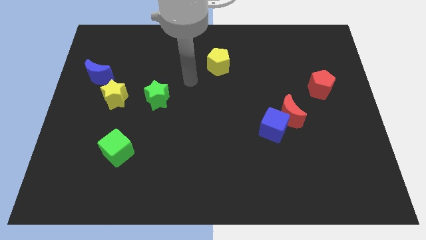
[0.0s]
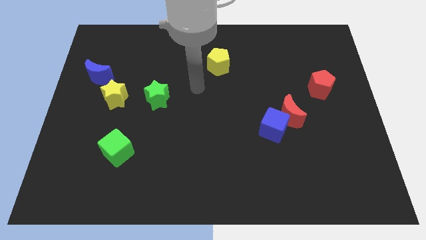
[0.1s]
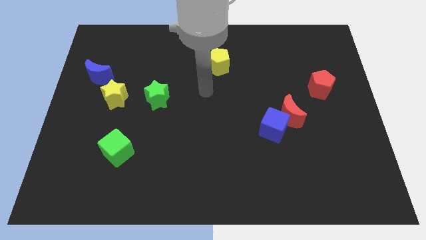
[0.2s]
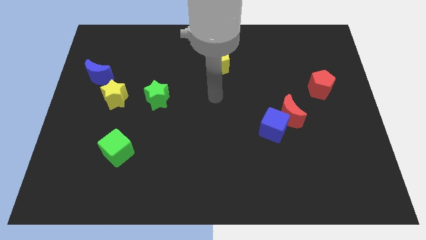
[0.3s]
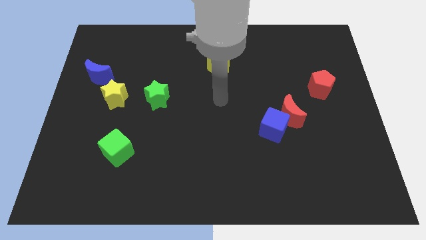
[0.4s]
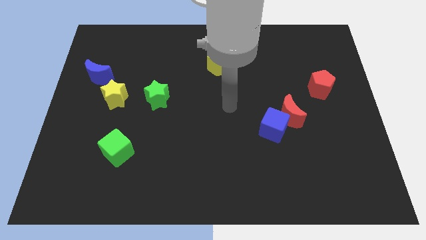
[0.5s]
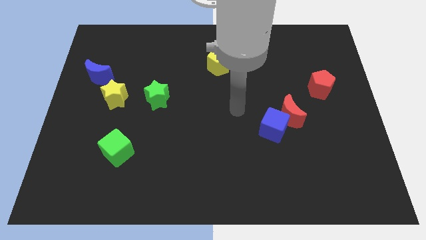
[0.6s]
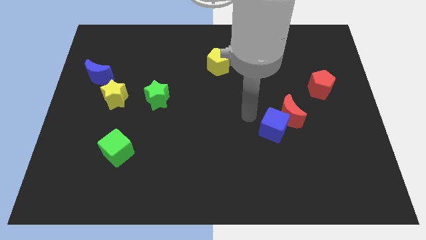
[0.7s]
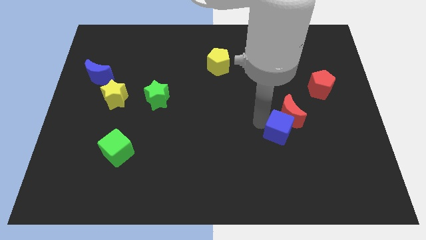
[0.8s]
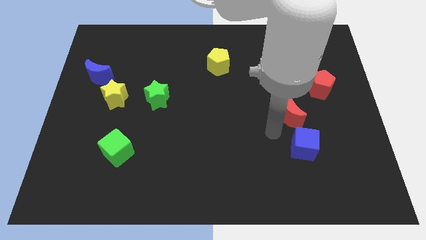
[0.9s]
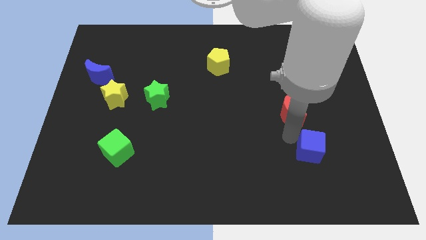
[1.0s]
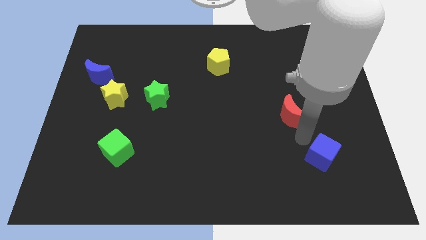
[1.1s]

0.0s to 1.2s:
move the red moon away from the blue cube

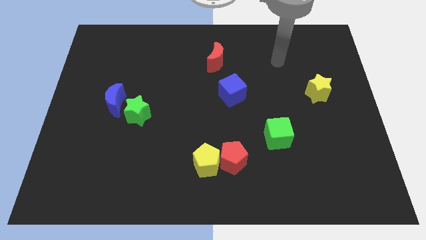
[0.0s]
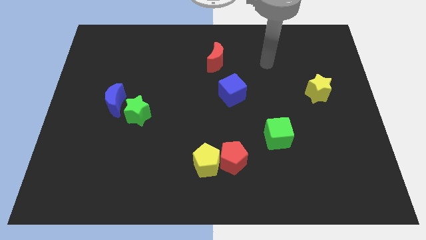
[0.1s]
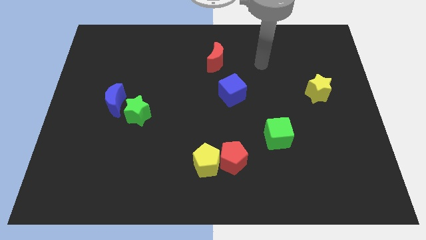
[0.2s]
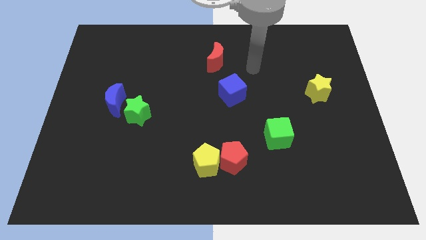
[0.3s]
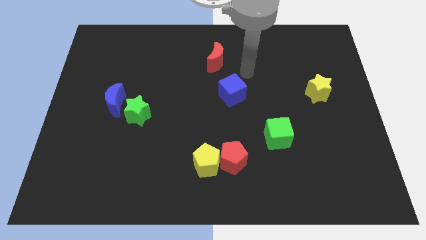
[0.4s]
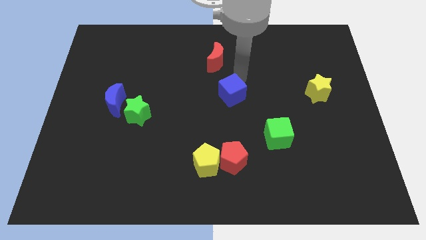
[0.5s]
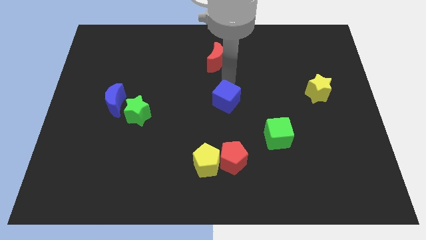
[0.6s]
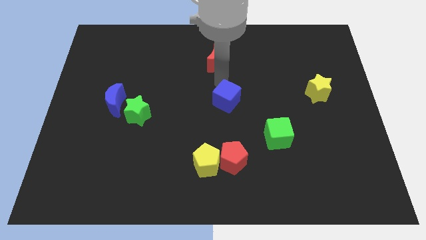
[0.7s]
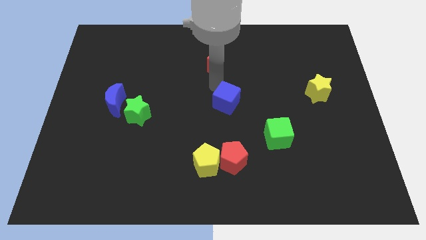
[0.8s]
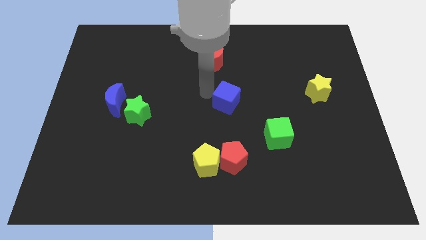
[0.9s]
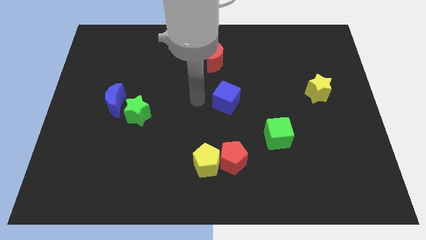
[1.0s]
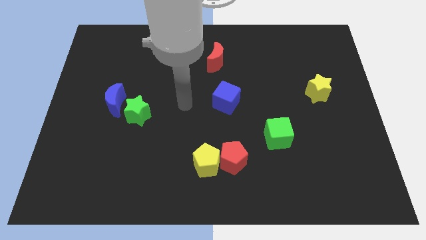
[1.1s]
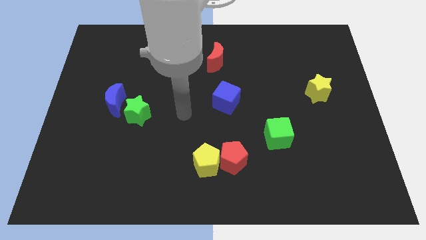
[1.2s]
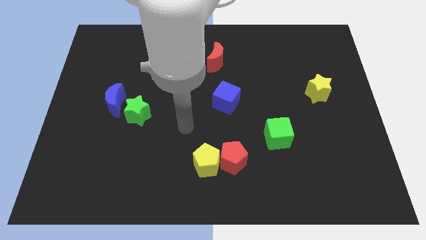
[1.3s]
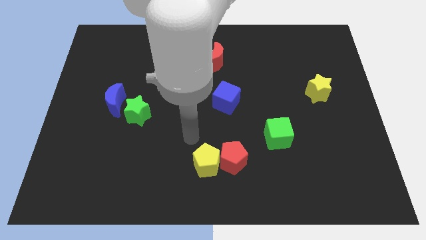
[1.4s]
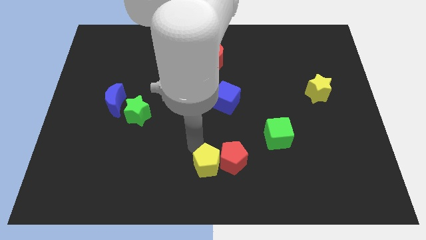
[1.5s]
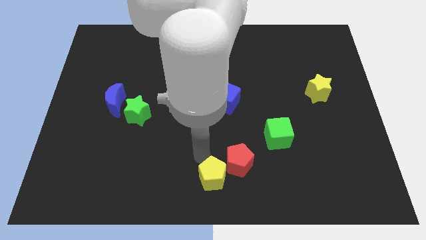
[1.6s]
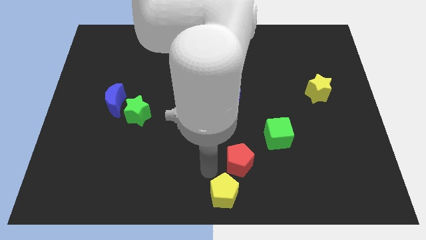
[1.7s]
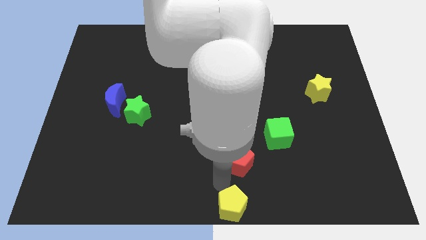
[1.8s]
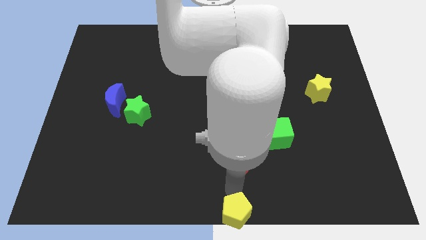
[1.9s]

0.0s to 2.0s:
move the red pentagon away from the yellow pentagon

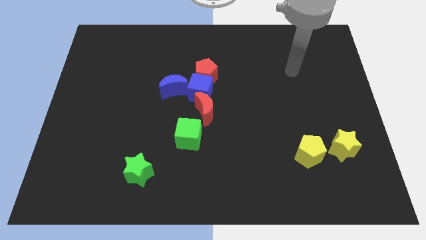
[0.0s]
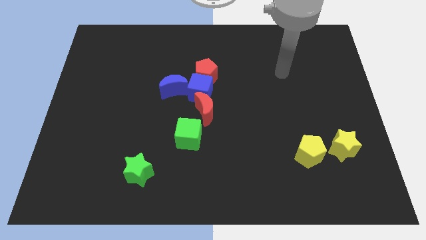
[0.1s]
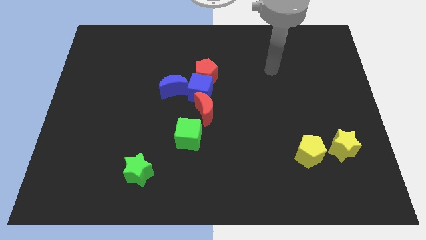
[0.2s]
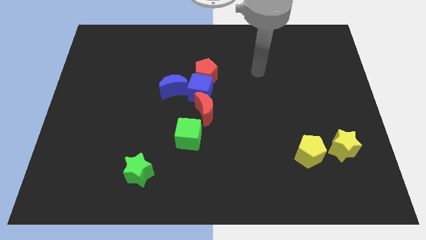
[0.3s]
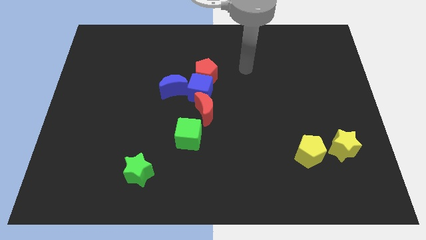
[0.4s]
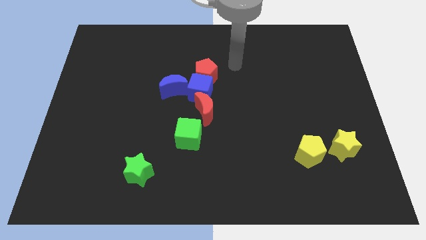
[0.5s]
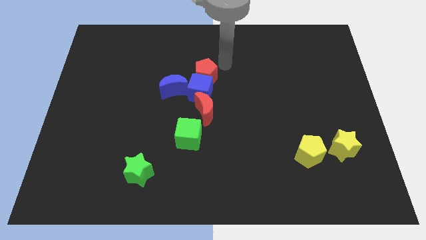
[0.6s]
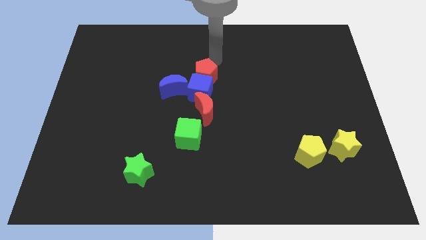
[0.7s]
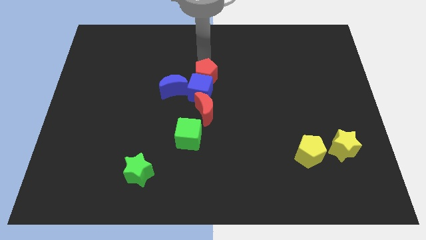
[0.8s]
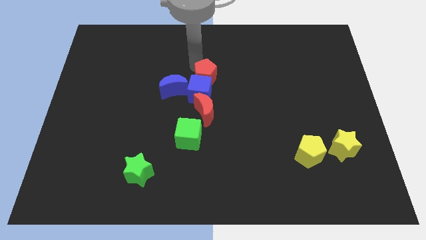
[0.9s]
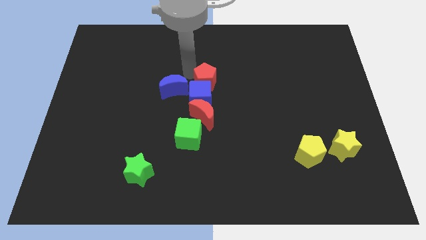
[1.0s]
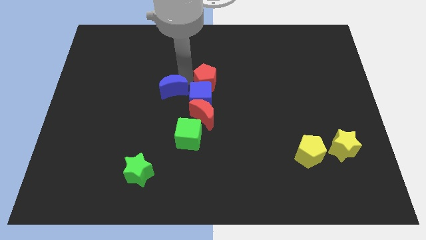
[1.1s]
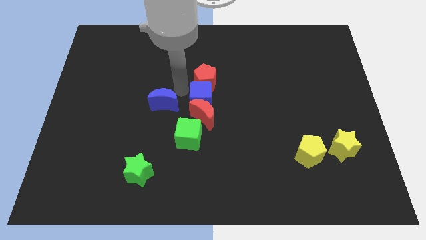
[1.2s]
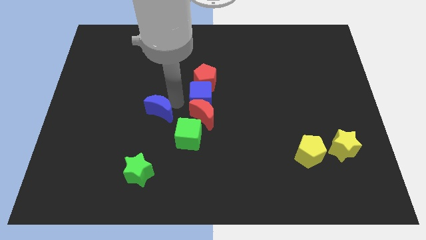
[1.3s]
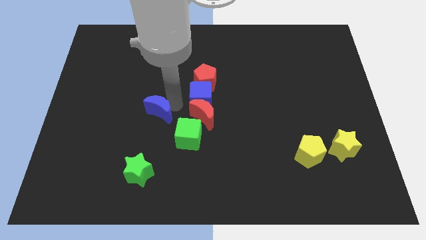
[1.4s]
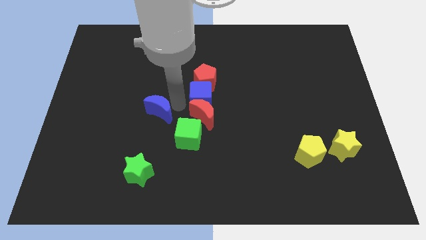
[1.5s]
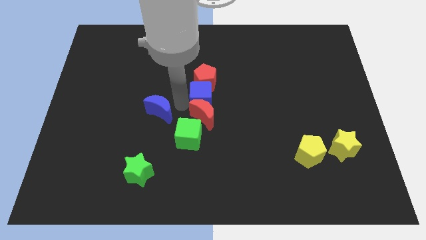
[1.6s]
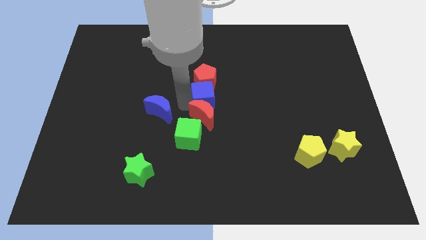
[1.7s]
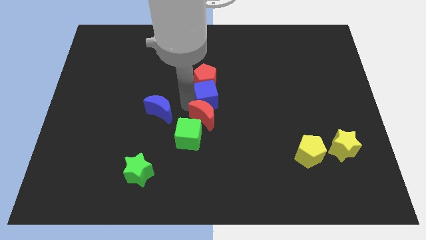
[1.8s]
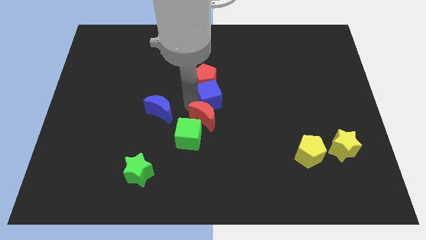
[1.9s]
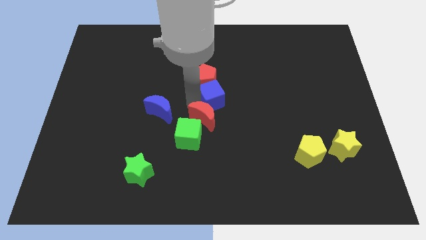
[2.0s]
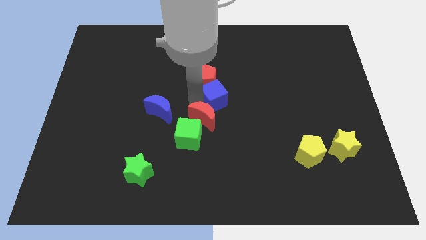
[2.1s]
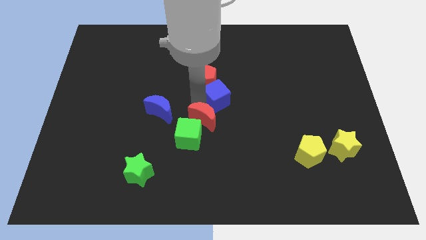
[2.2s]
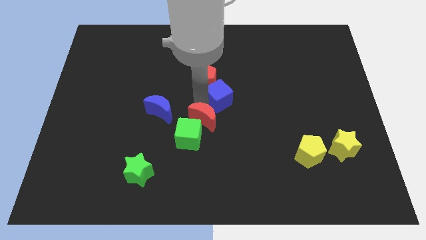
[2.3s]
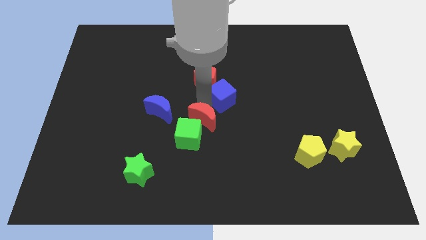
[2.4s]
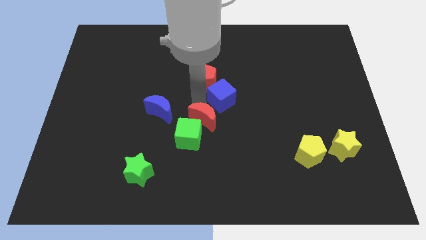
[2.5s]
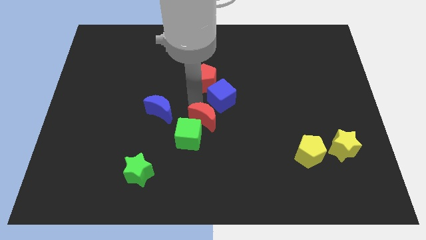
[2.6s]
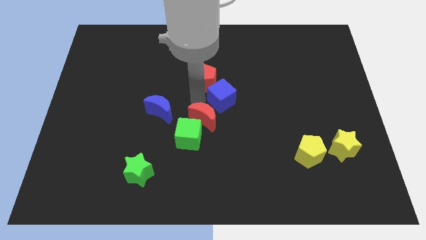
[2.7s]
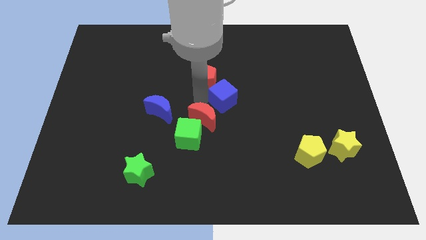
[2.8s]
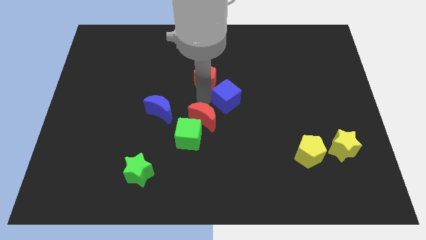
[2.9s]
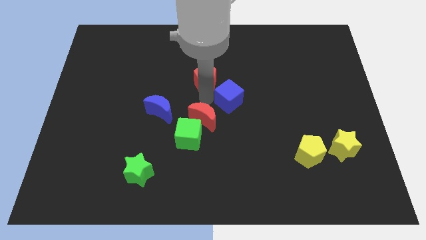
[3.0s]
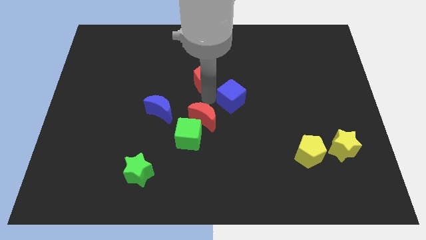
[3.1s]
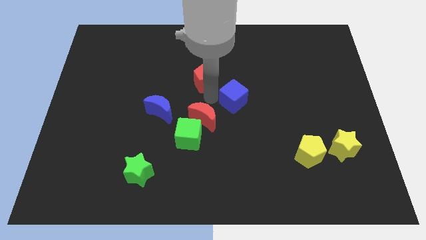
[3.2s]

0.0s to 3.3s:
pull the blue cube apart from the red pentagon, red moon, and blue moon

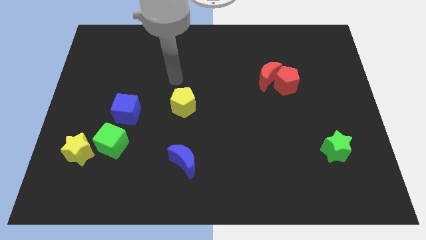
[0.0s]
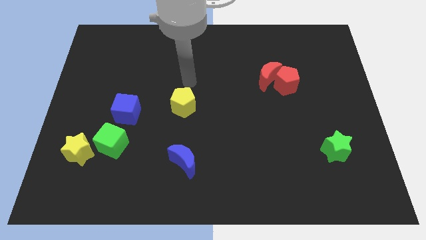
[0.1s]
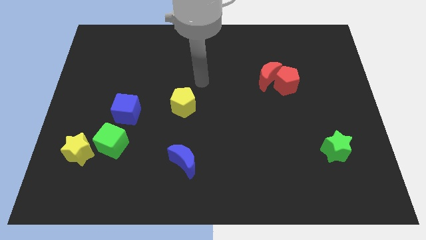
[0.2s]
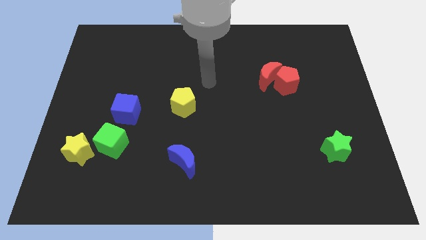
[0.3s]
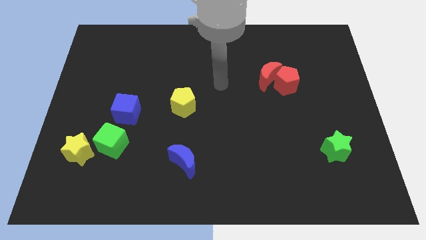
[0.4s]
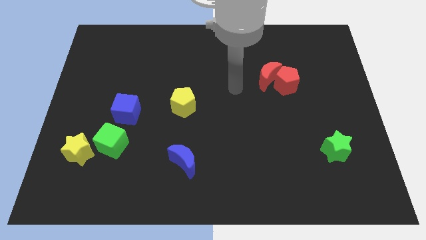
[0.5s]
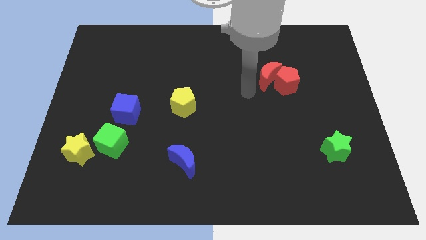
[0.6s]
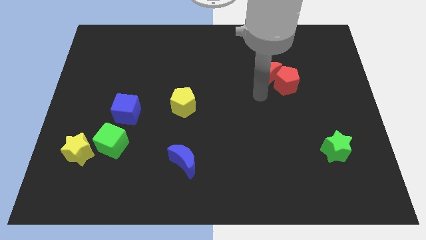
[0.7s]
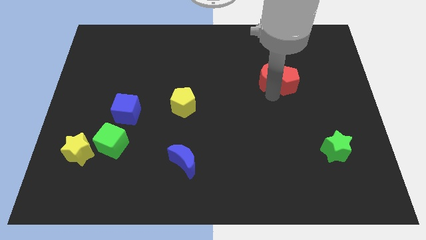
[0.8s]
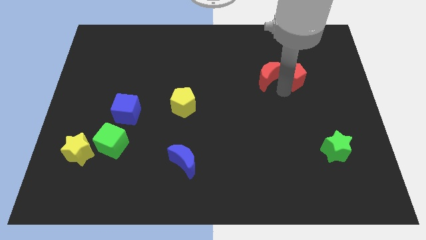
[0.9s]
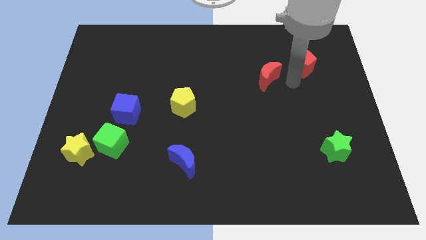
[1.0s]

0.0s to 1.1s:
separate the red moon from the red pentagon

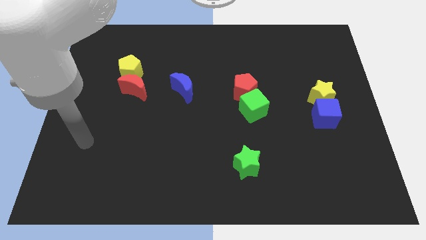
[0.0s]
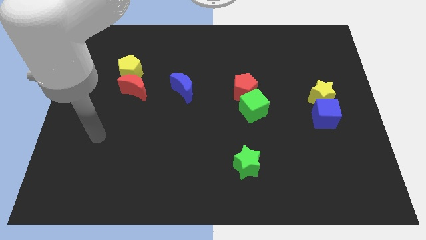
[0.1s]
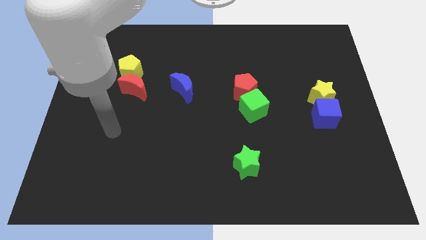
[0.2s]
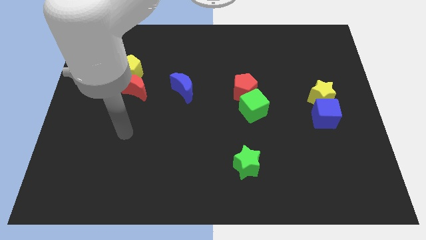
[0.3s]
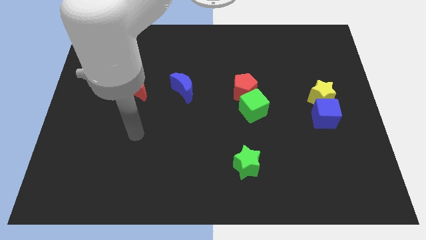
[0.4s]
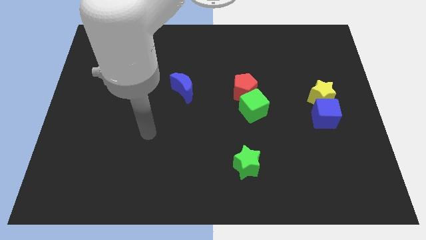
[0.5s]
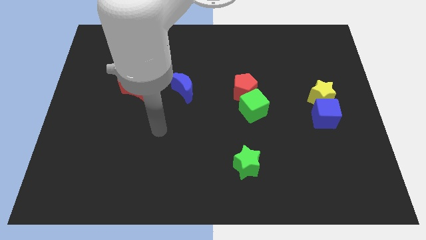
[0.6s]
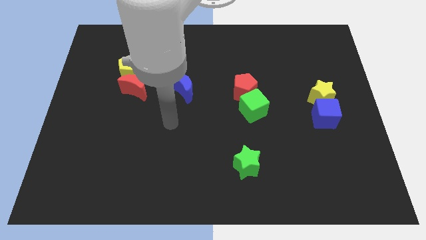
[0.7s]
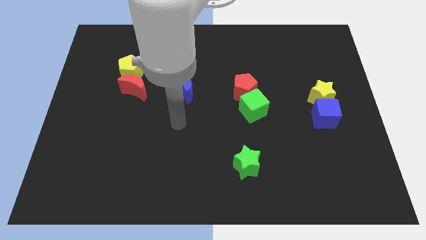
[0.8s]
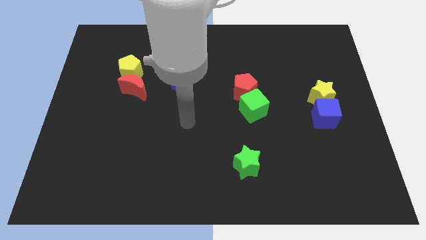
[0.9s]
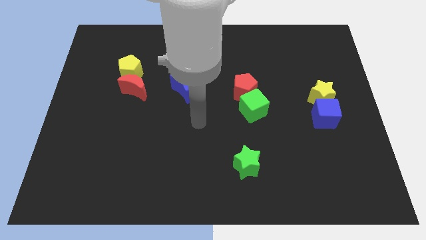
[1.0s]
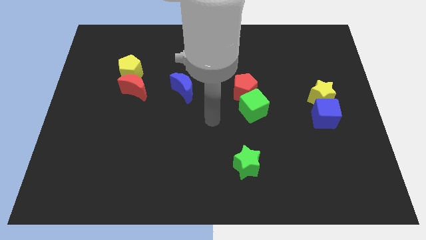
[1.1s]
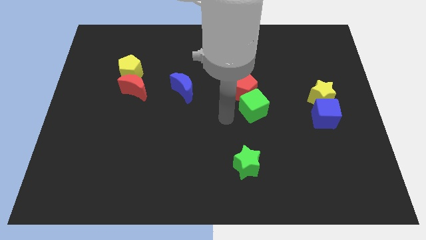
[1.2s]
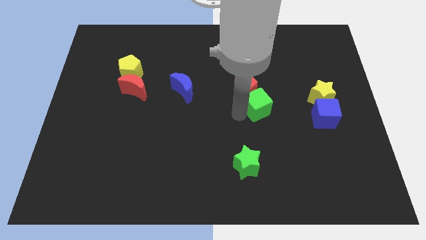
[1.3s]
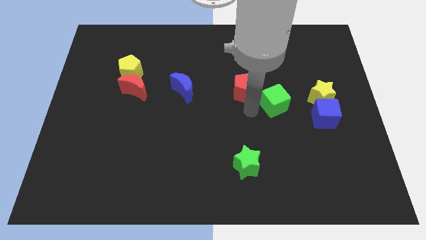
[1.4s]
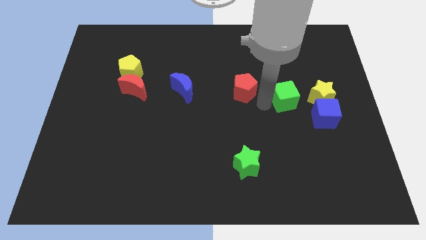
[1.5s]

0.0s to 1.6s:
separate the red pentagon from the green cube
